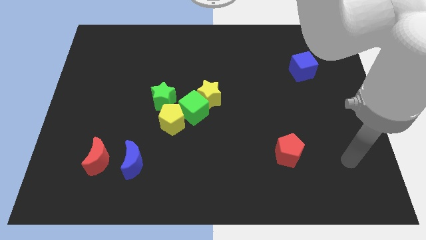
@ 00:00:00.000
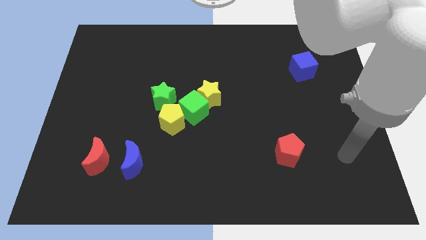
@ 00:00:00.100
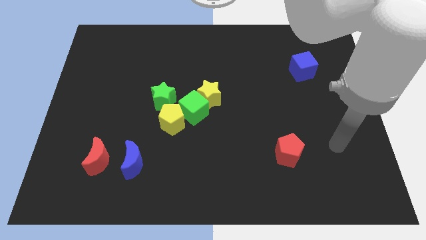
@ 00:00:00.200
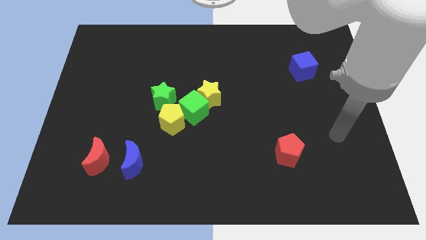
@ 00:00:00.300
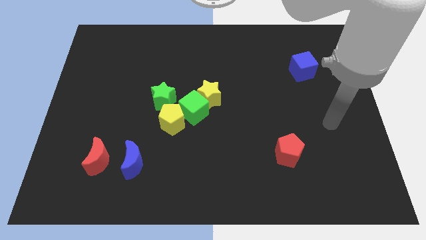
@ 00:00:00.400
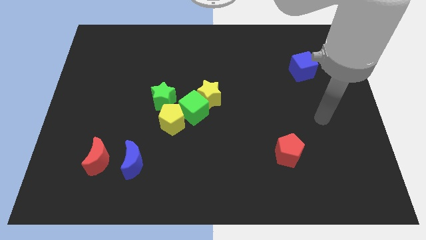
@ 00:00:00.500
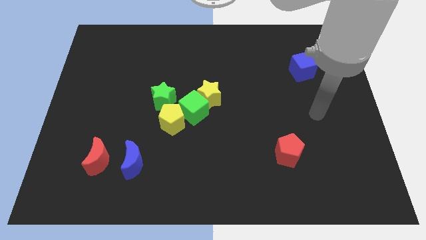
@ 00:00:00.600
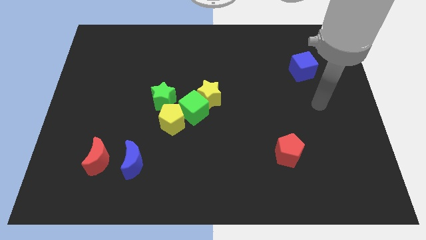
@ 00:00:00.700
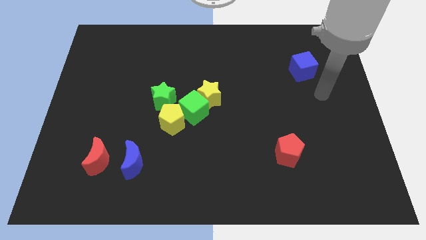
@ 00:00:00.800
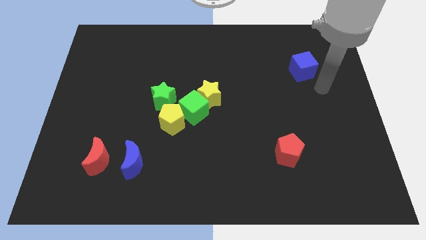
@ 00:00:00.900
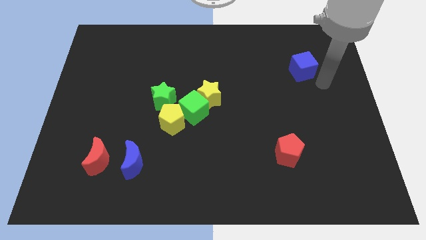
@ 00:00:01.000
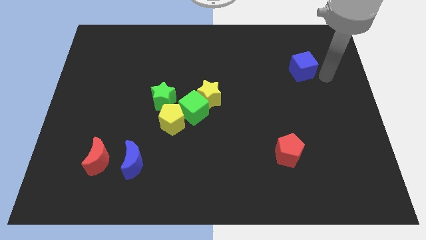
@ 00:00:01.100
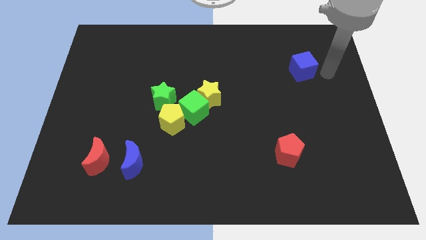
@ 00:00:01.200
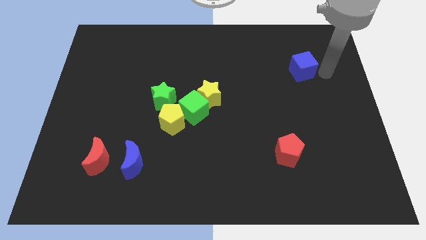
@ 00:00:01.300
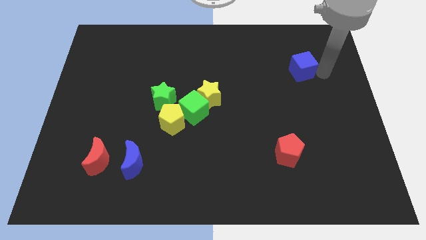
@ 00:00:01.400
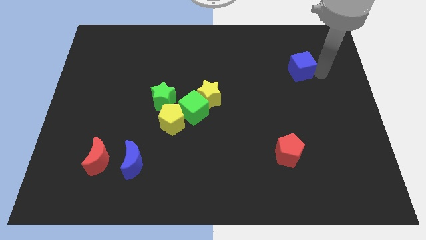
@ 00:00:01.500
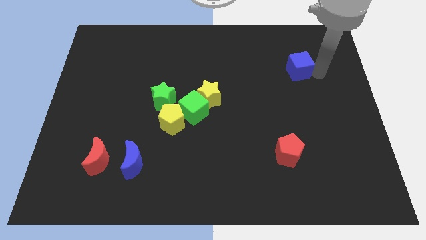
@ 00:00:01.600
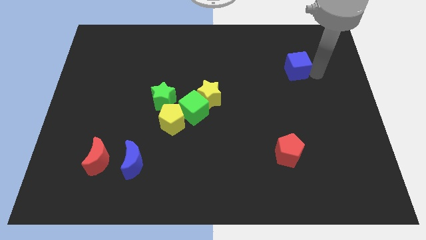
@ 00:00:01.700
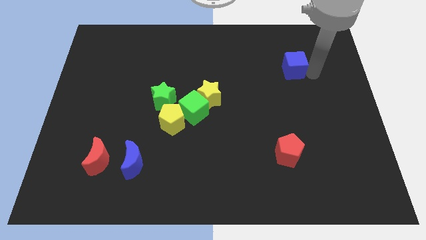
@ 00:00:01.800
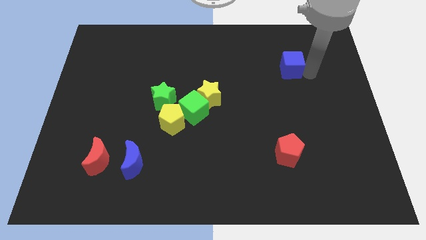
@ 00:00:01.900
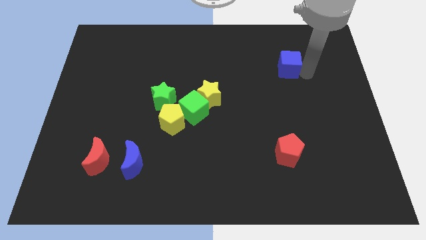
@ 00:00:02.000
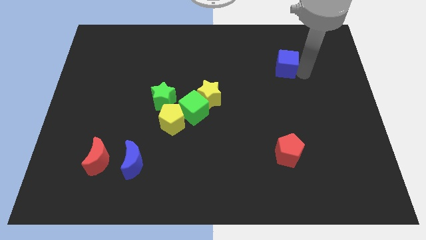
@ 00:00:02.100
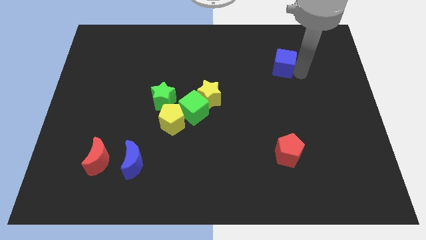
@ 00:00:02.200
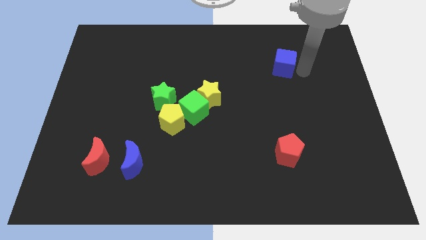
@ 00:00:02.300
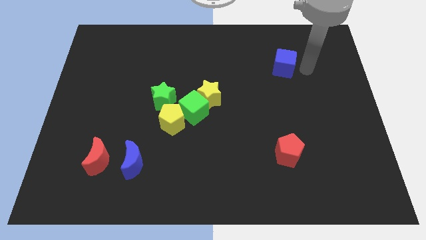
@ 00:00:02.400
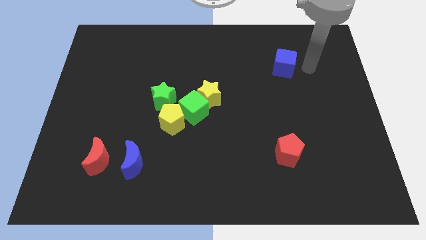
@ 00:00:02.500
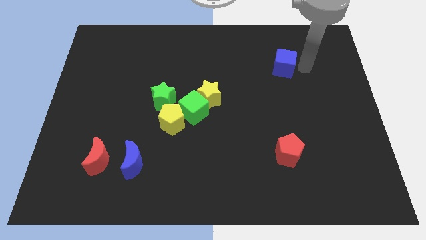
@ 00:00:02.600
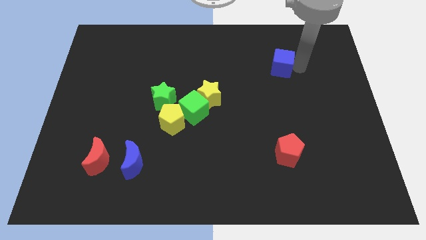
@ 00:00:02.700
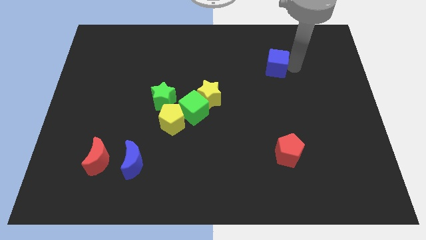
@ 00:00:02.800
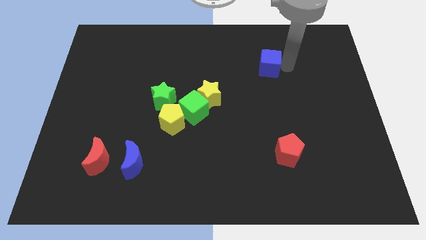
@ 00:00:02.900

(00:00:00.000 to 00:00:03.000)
slightly push the blue cube left

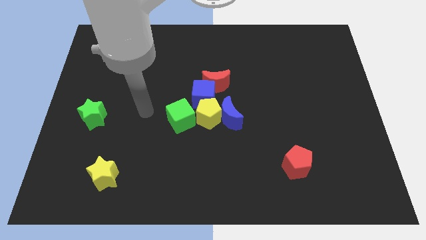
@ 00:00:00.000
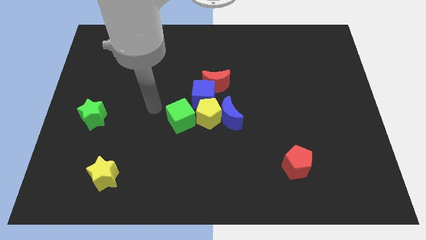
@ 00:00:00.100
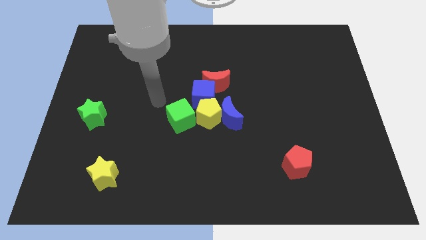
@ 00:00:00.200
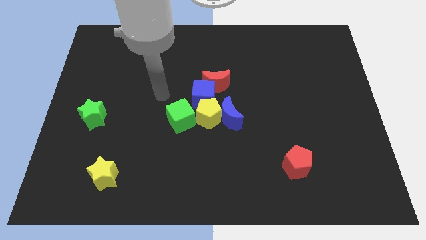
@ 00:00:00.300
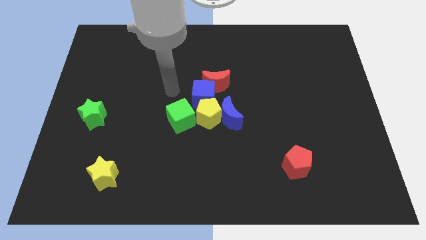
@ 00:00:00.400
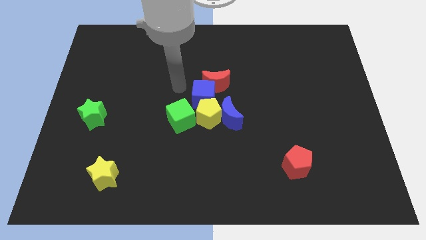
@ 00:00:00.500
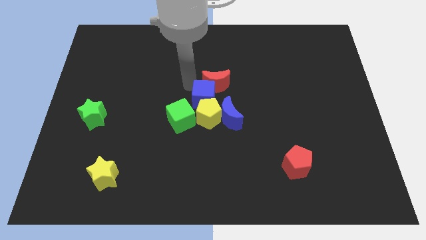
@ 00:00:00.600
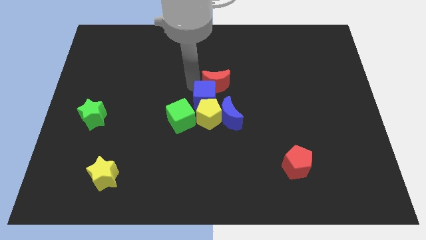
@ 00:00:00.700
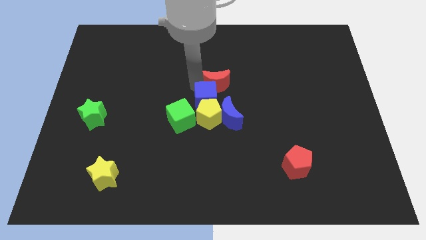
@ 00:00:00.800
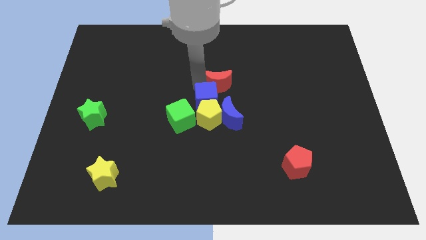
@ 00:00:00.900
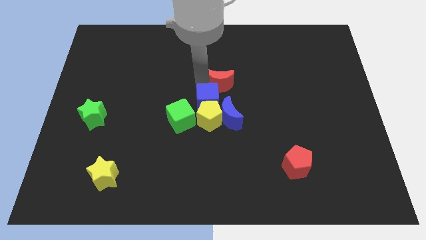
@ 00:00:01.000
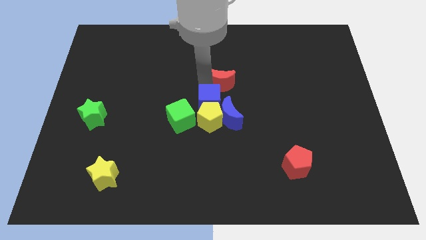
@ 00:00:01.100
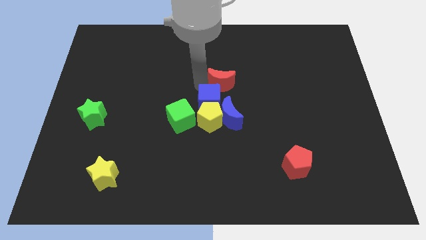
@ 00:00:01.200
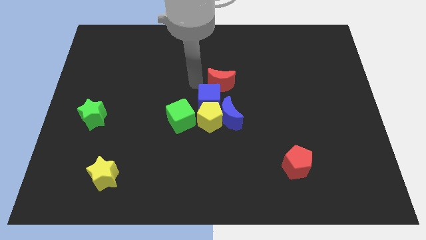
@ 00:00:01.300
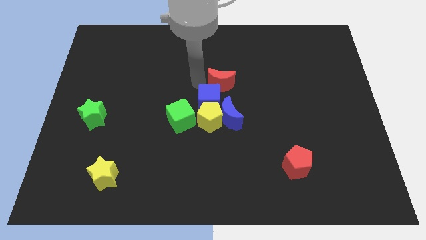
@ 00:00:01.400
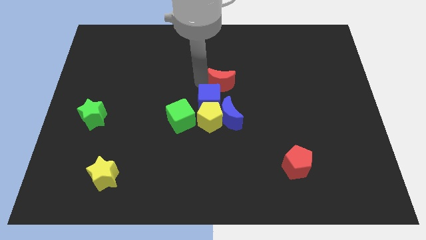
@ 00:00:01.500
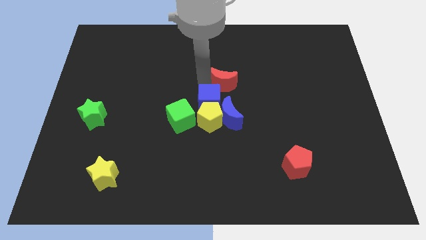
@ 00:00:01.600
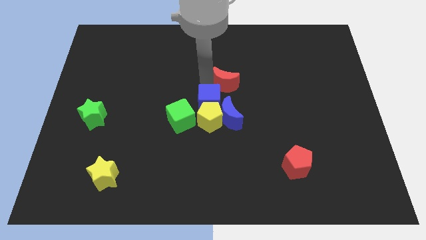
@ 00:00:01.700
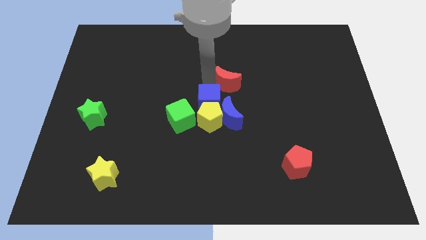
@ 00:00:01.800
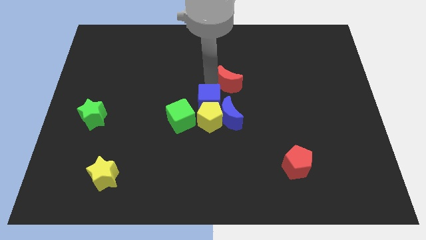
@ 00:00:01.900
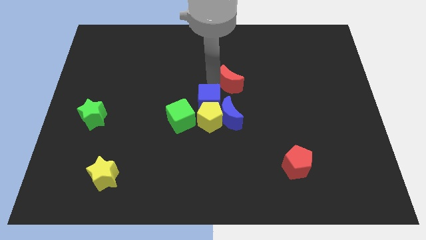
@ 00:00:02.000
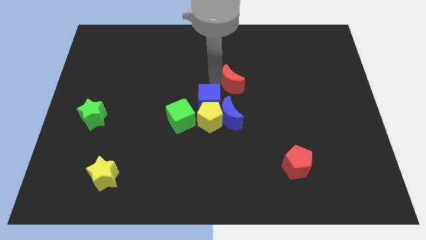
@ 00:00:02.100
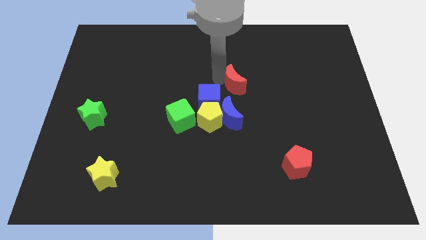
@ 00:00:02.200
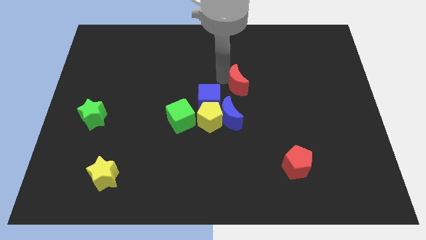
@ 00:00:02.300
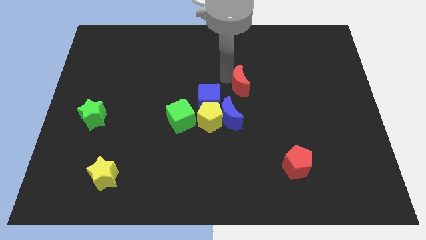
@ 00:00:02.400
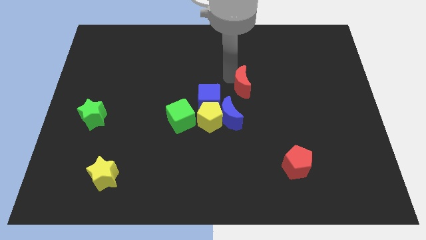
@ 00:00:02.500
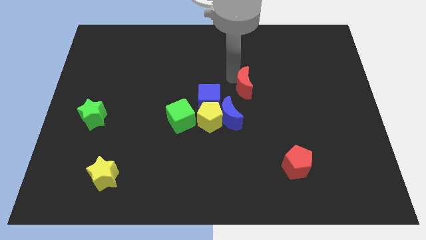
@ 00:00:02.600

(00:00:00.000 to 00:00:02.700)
move the red moon right a bit

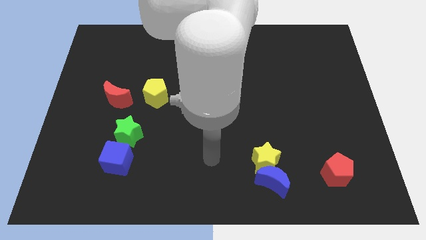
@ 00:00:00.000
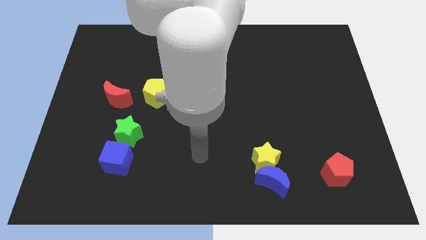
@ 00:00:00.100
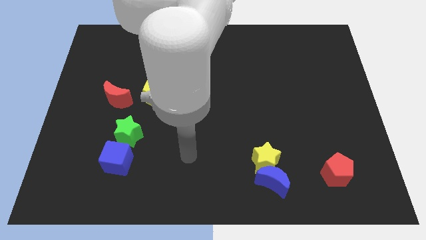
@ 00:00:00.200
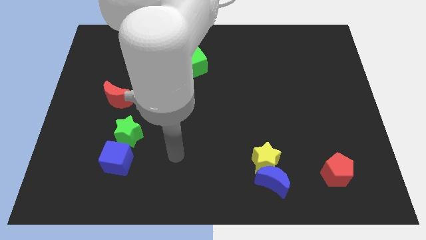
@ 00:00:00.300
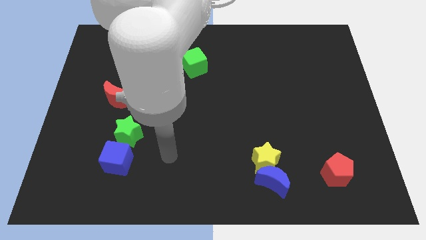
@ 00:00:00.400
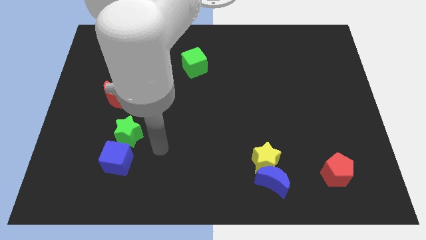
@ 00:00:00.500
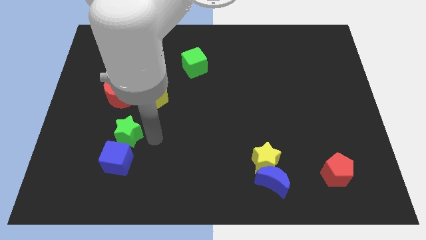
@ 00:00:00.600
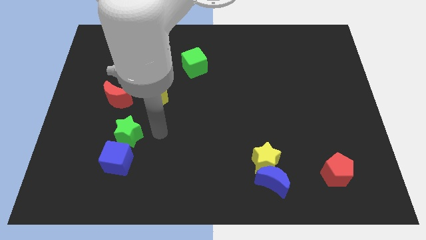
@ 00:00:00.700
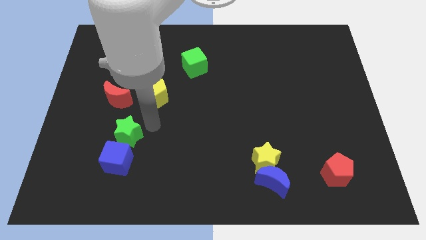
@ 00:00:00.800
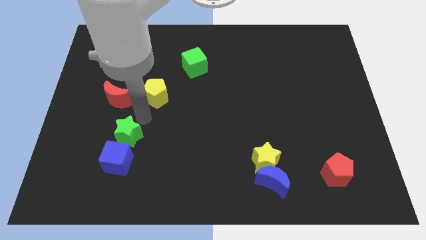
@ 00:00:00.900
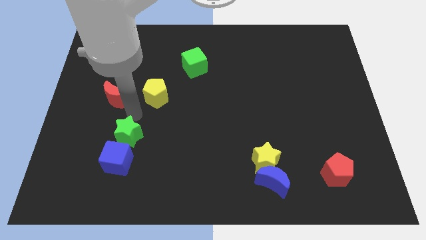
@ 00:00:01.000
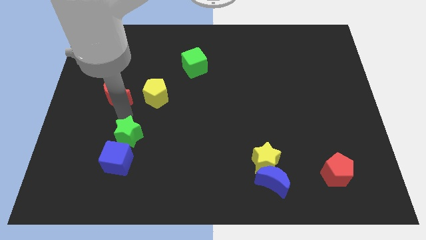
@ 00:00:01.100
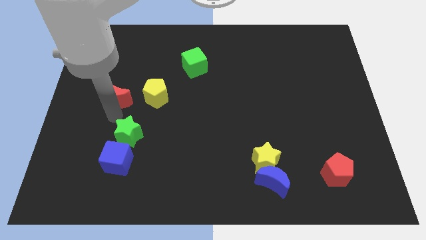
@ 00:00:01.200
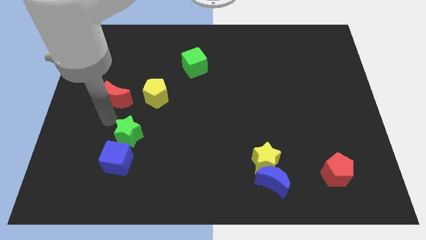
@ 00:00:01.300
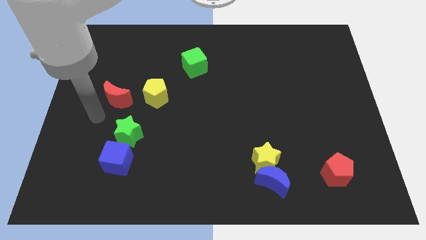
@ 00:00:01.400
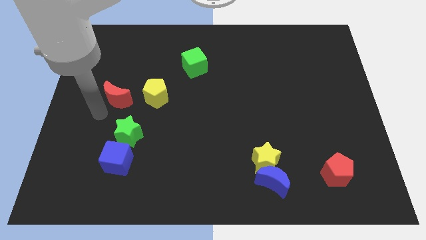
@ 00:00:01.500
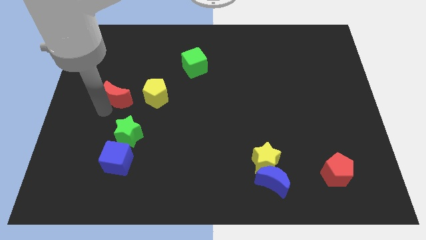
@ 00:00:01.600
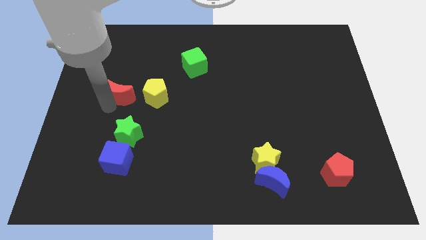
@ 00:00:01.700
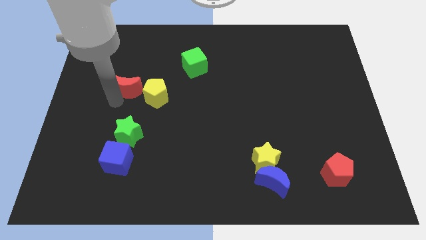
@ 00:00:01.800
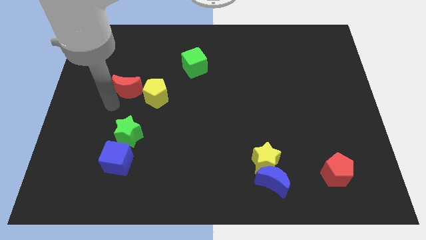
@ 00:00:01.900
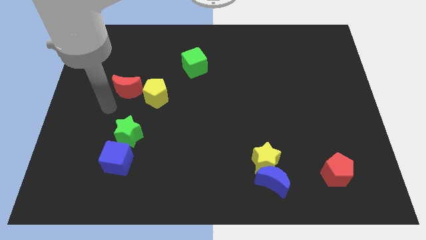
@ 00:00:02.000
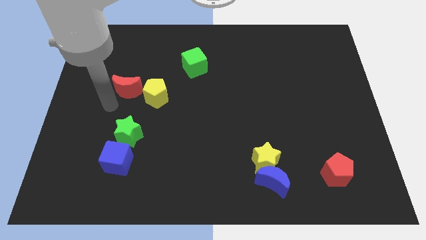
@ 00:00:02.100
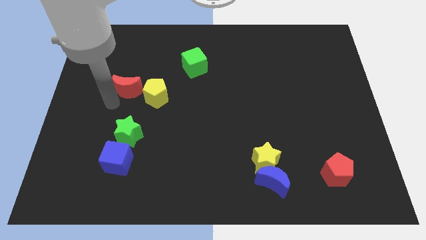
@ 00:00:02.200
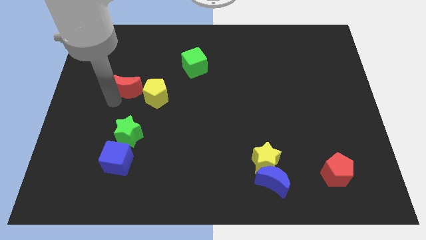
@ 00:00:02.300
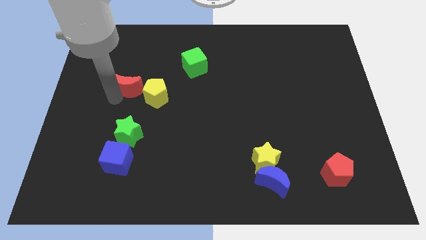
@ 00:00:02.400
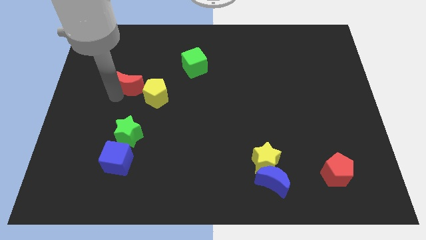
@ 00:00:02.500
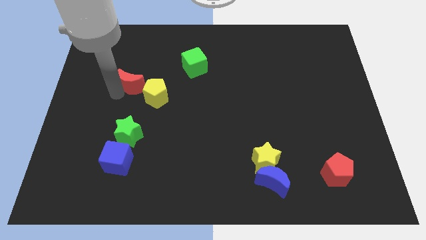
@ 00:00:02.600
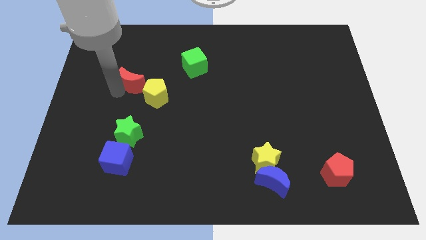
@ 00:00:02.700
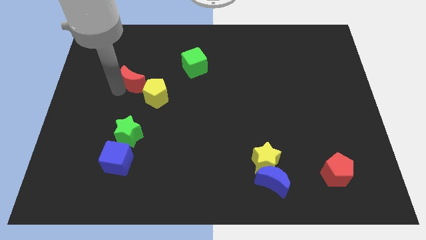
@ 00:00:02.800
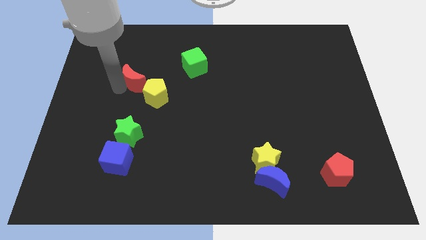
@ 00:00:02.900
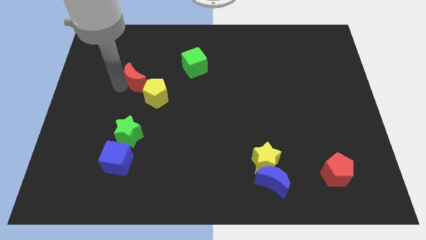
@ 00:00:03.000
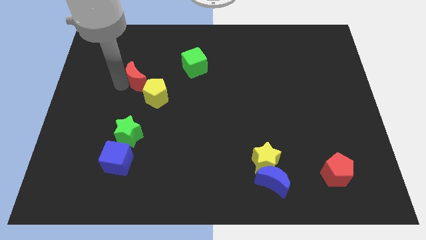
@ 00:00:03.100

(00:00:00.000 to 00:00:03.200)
slide the red moon a little bit diagonally upwards and right
